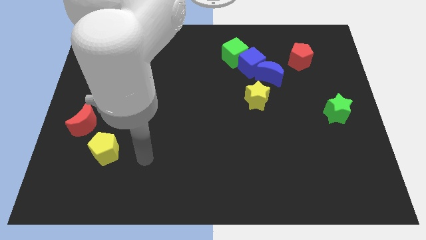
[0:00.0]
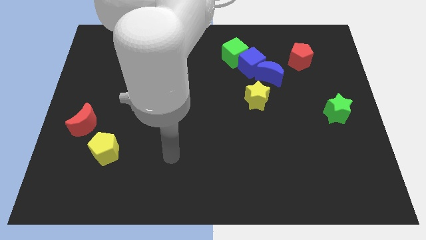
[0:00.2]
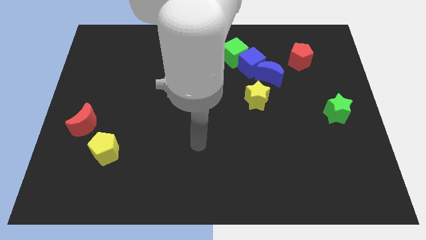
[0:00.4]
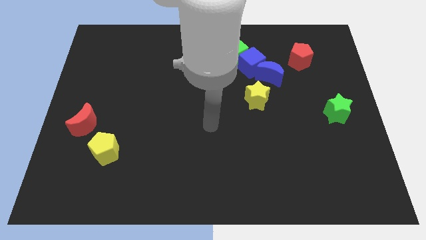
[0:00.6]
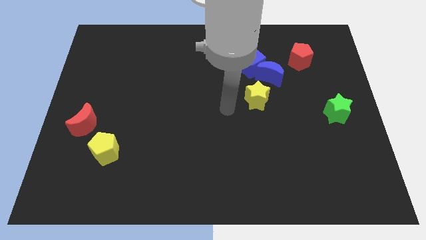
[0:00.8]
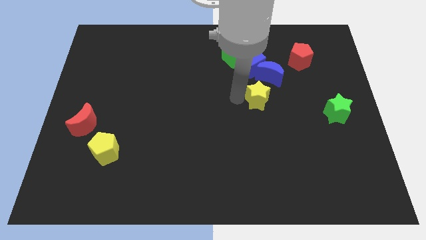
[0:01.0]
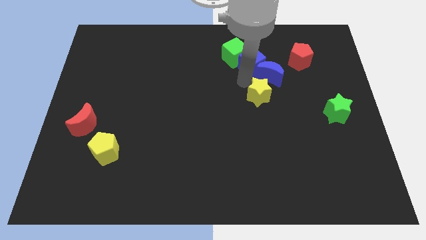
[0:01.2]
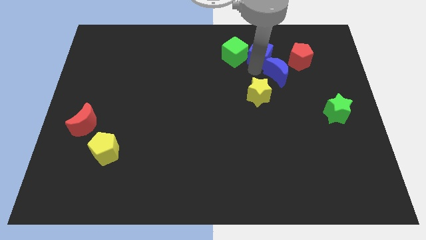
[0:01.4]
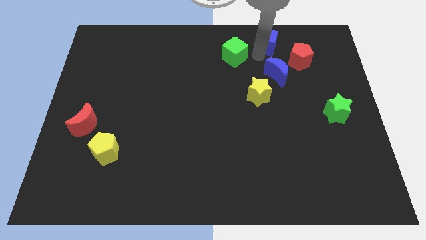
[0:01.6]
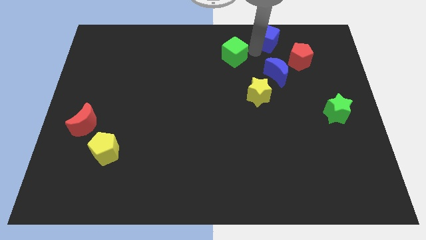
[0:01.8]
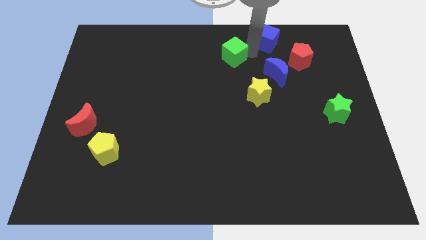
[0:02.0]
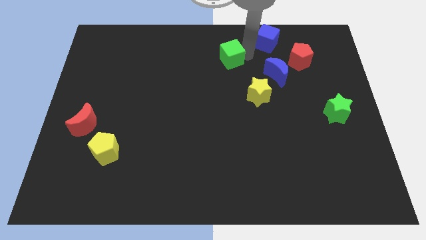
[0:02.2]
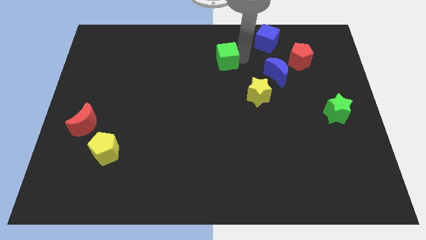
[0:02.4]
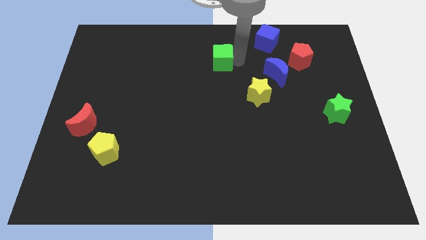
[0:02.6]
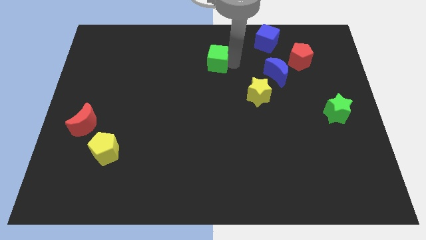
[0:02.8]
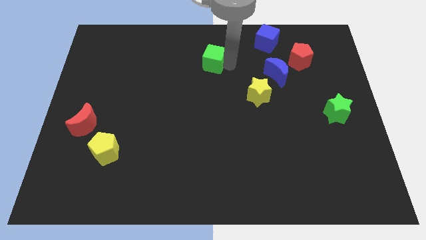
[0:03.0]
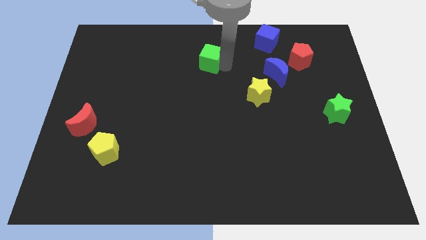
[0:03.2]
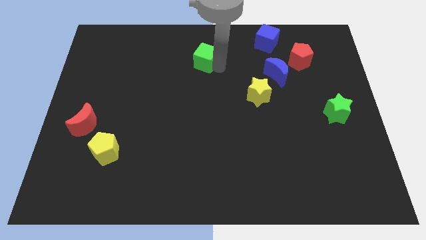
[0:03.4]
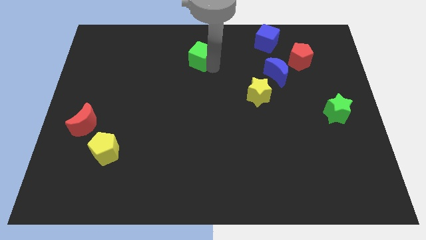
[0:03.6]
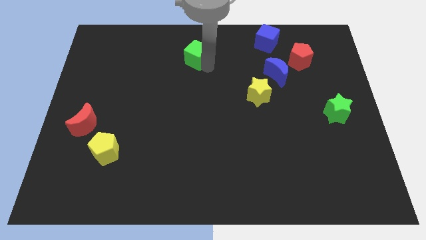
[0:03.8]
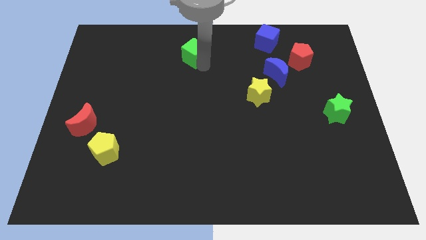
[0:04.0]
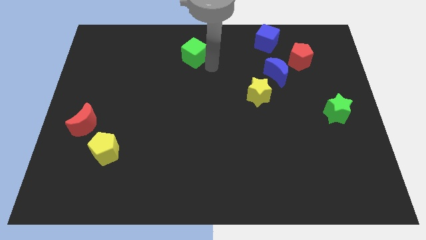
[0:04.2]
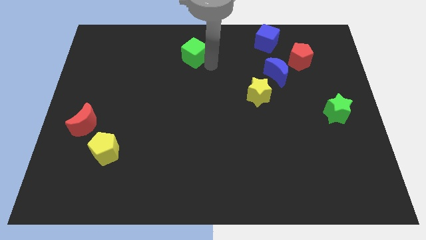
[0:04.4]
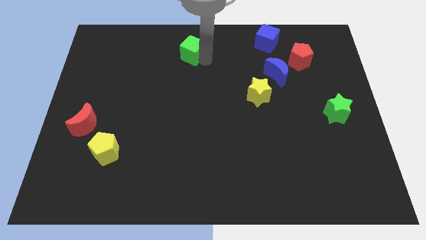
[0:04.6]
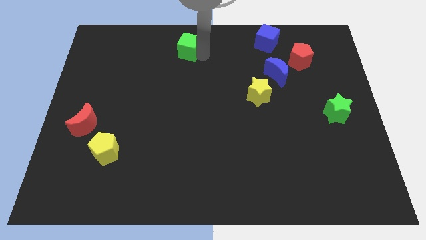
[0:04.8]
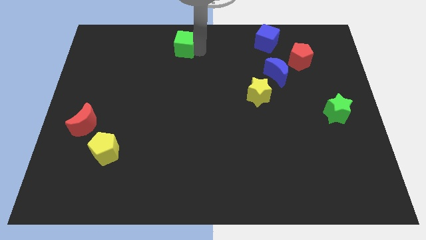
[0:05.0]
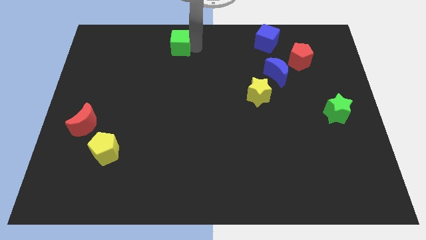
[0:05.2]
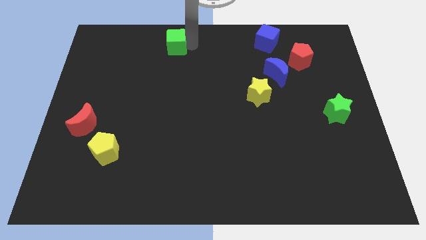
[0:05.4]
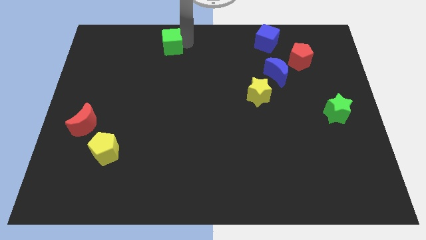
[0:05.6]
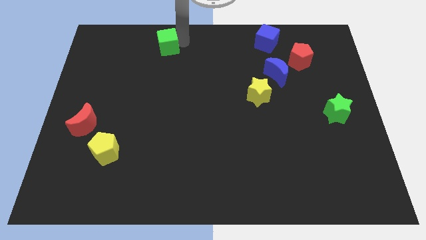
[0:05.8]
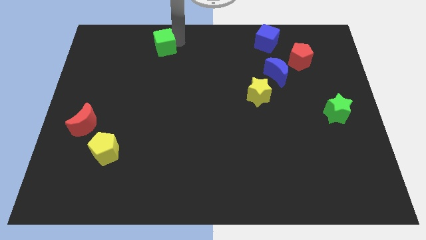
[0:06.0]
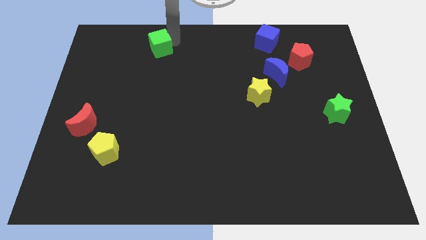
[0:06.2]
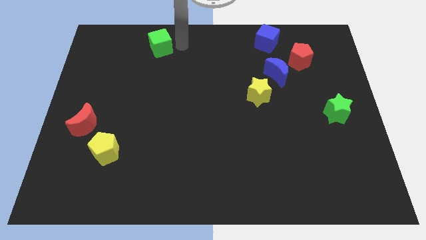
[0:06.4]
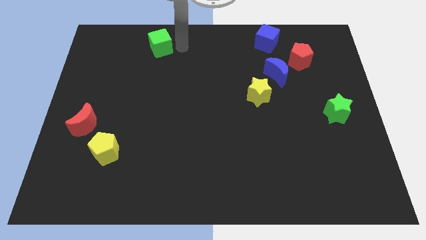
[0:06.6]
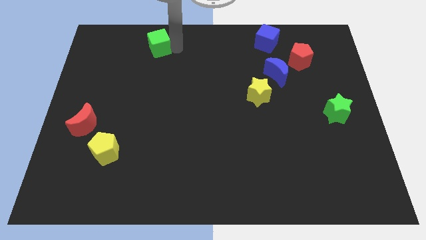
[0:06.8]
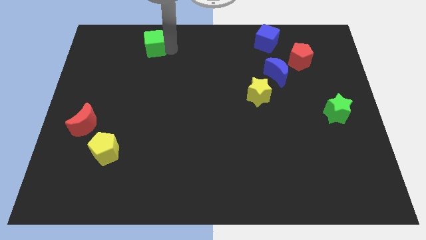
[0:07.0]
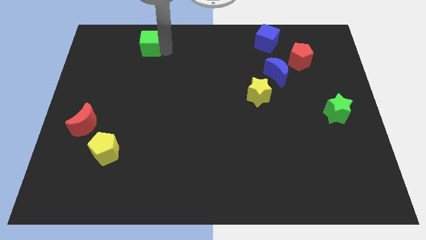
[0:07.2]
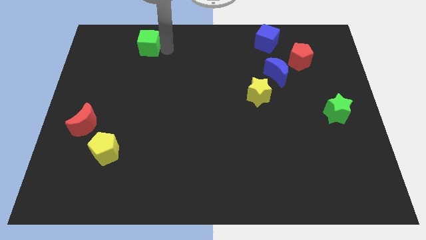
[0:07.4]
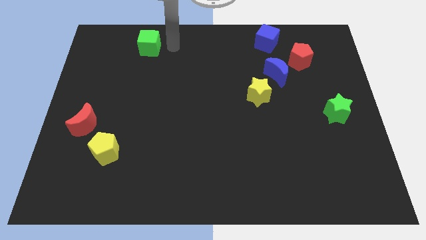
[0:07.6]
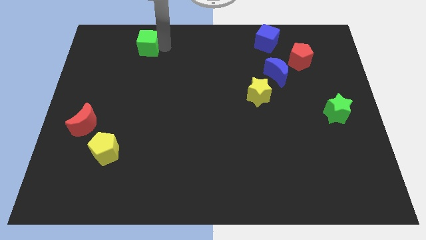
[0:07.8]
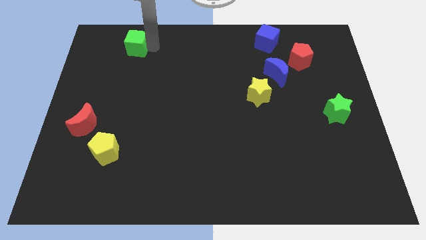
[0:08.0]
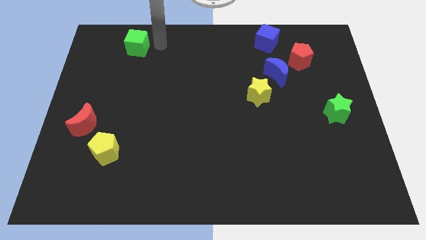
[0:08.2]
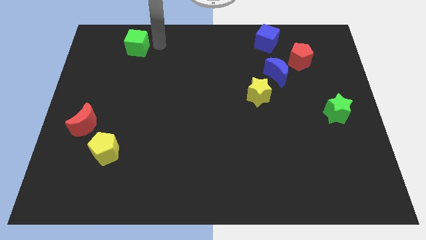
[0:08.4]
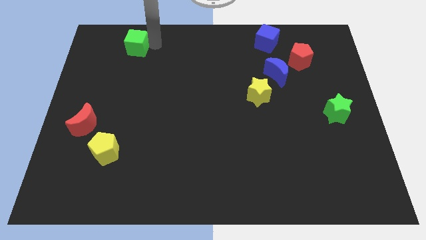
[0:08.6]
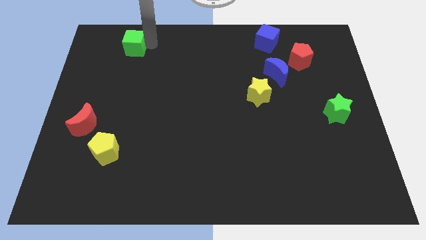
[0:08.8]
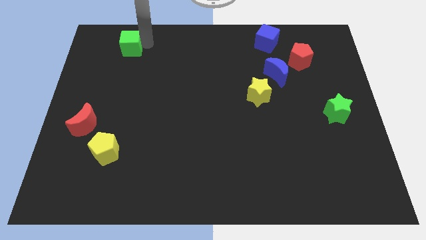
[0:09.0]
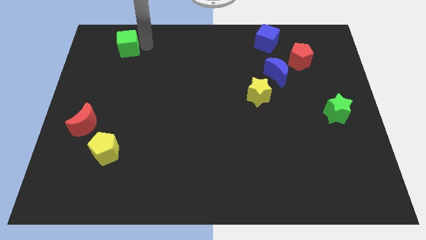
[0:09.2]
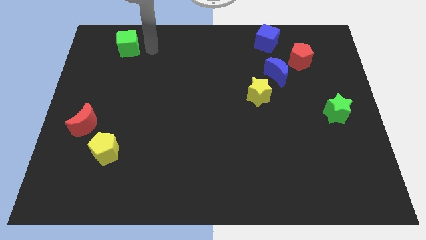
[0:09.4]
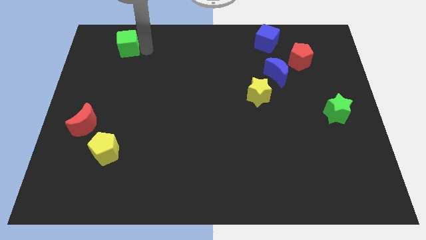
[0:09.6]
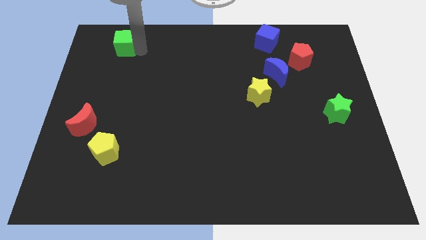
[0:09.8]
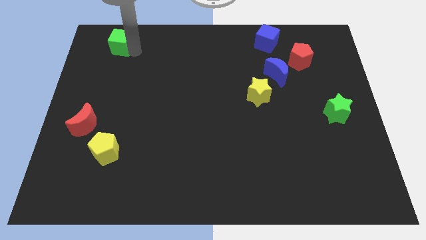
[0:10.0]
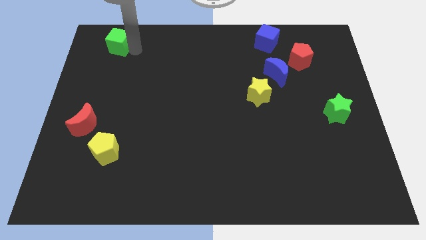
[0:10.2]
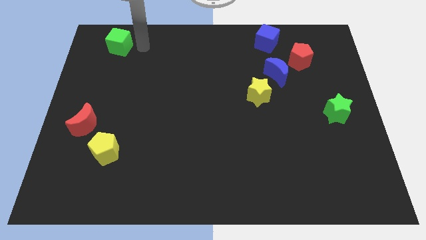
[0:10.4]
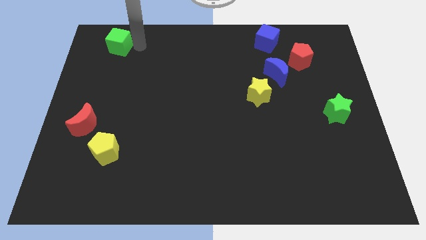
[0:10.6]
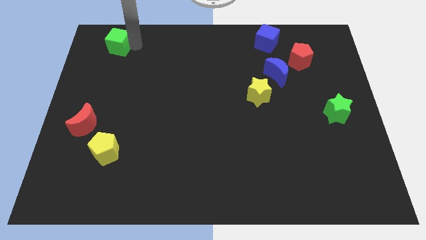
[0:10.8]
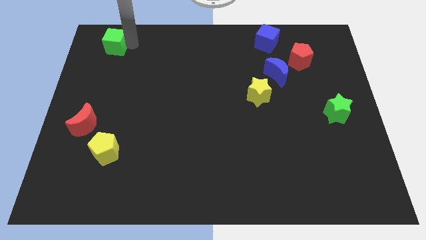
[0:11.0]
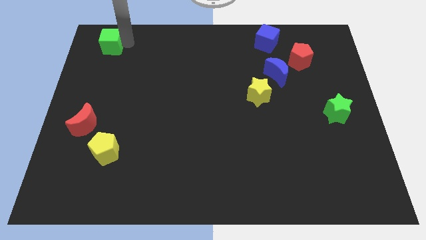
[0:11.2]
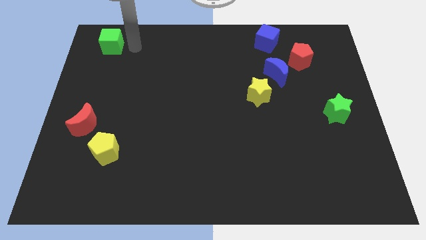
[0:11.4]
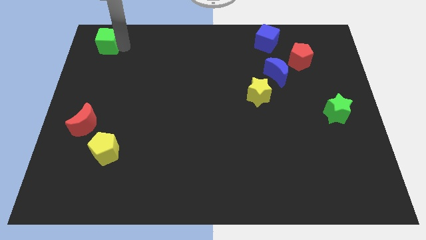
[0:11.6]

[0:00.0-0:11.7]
put the green cube to the top left

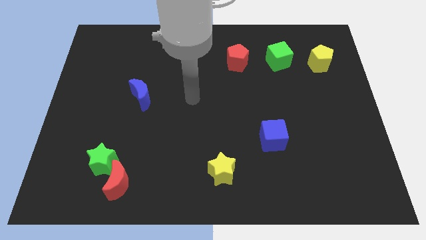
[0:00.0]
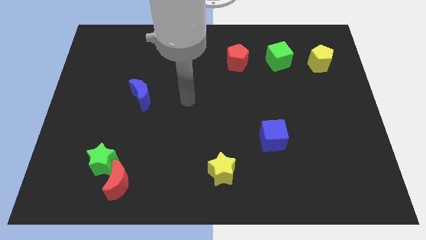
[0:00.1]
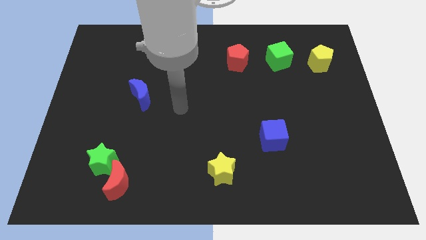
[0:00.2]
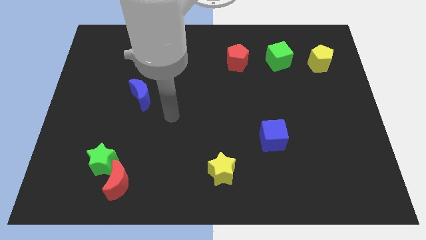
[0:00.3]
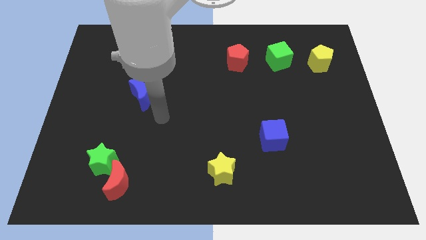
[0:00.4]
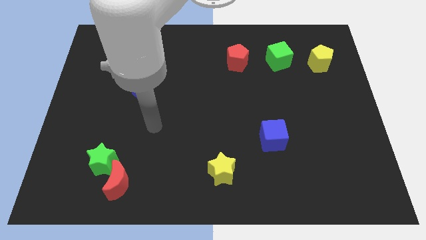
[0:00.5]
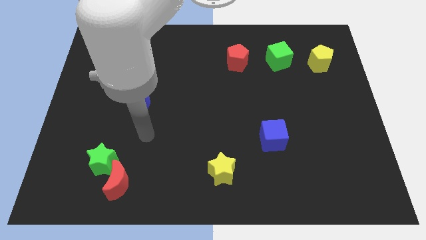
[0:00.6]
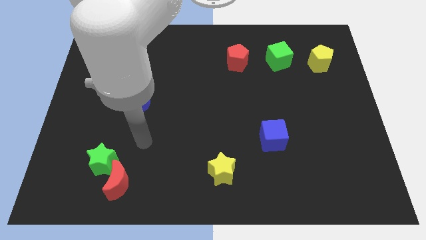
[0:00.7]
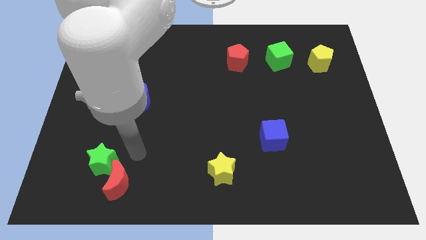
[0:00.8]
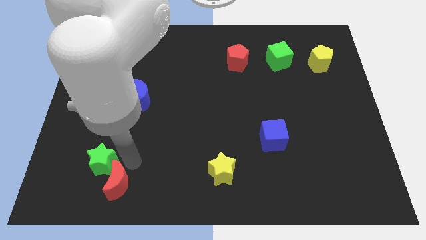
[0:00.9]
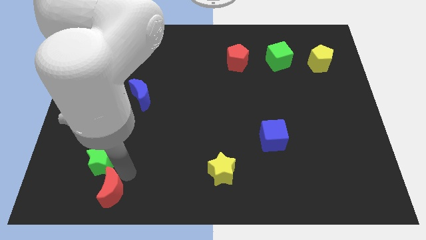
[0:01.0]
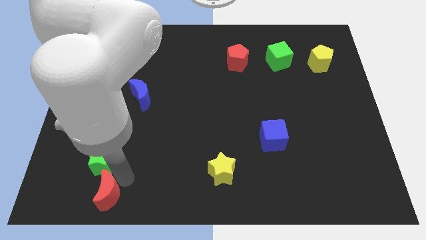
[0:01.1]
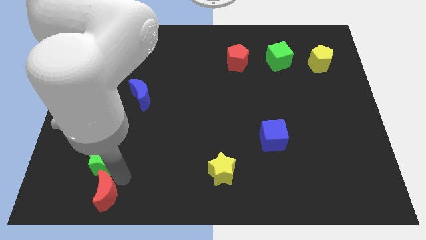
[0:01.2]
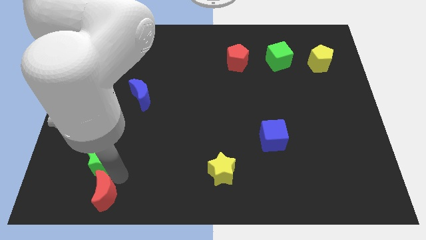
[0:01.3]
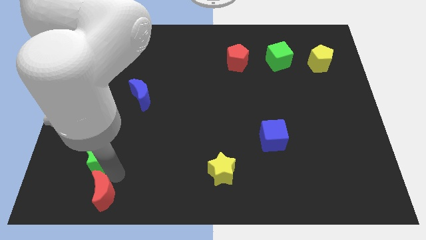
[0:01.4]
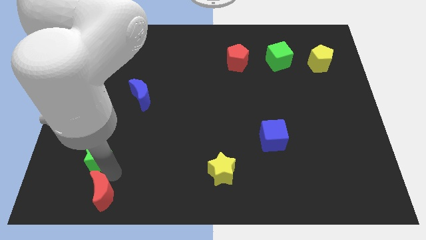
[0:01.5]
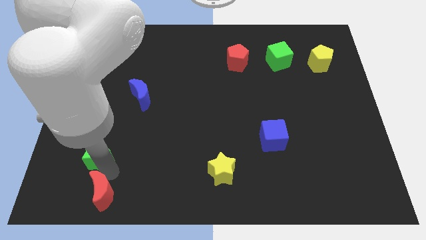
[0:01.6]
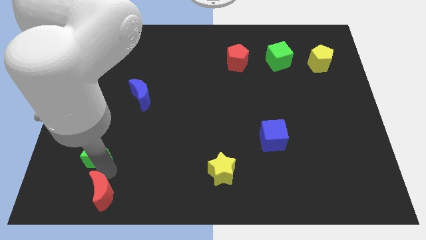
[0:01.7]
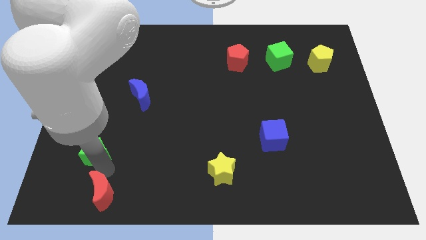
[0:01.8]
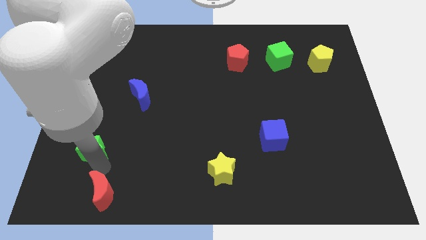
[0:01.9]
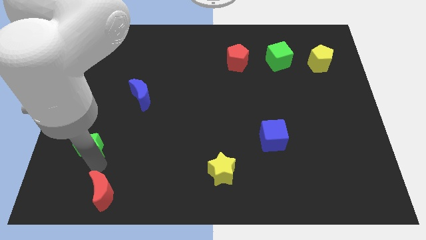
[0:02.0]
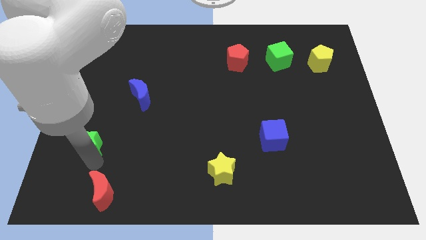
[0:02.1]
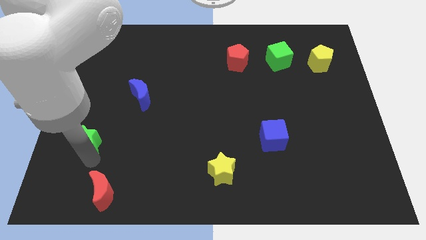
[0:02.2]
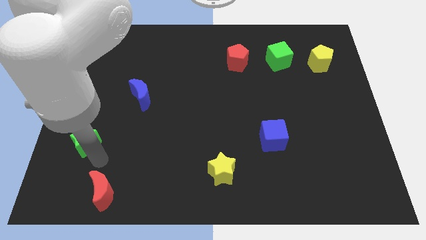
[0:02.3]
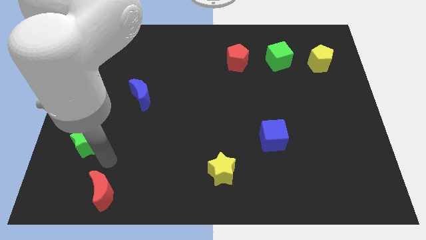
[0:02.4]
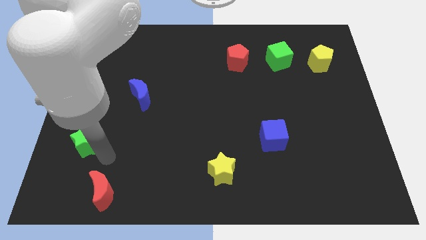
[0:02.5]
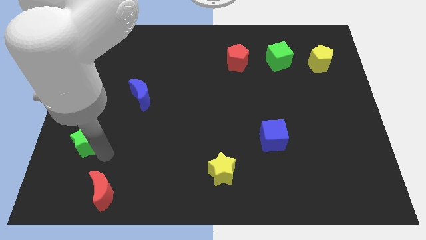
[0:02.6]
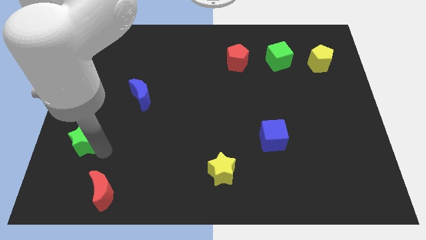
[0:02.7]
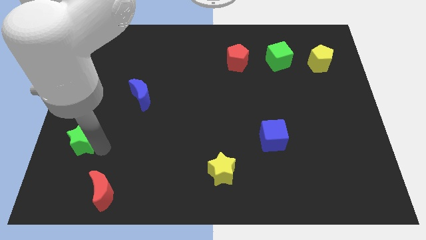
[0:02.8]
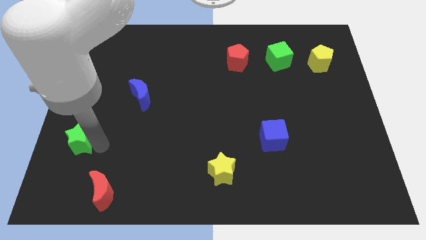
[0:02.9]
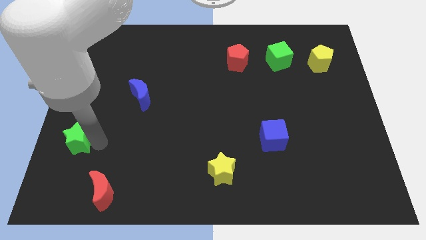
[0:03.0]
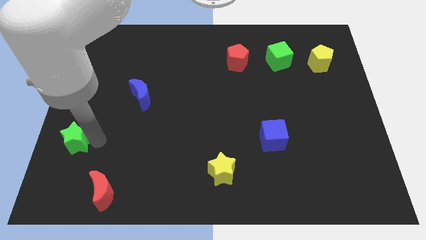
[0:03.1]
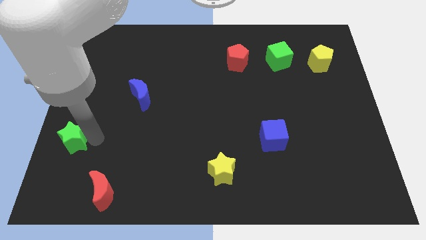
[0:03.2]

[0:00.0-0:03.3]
slide the green star to the center left
